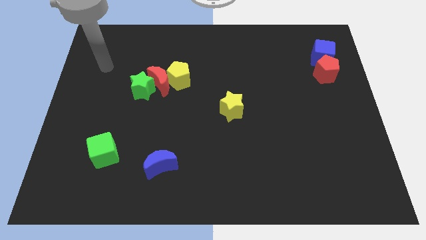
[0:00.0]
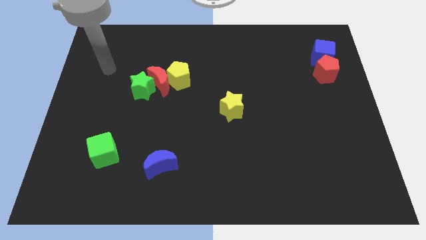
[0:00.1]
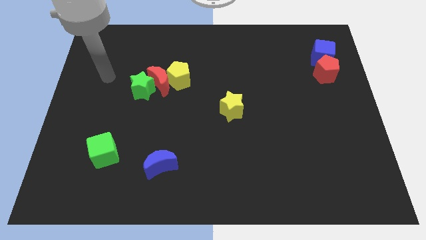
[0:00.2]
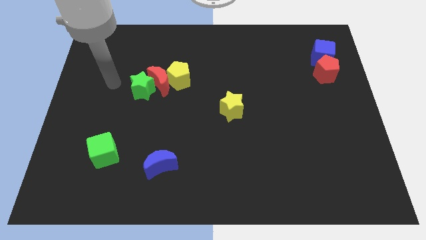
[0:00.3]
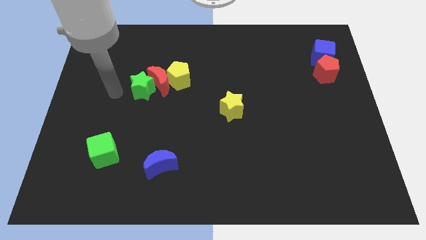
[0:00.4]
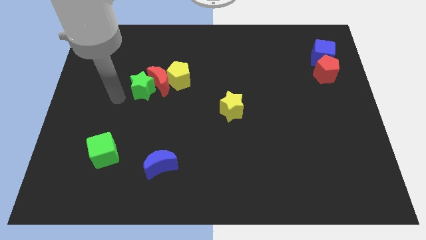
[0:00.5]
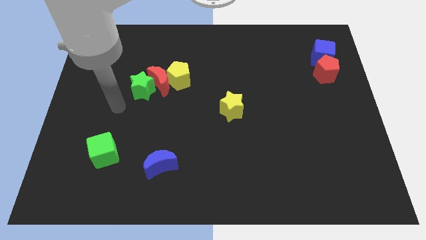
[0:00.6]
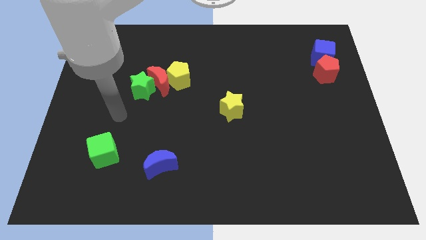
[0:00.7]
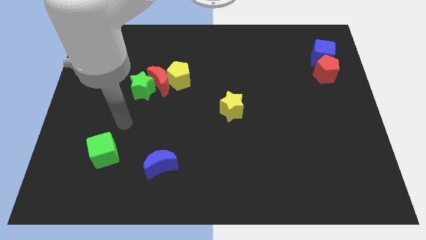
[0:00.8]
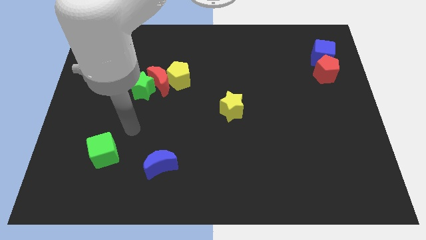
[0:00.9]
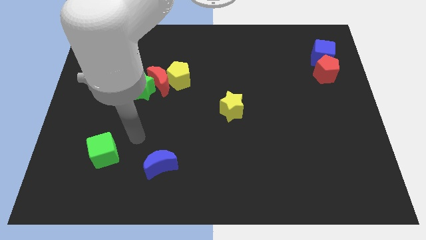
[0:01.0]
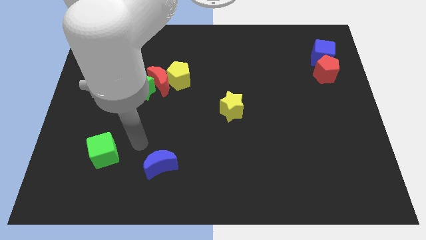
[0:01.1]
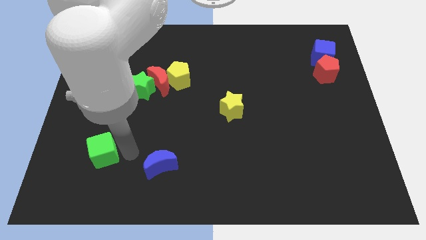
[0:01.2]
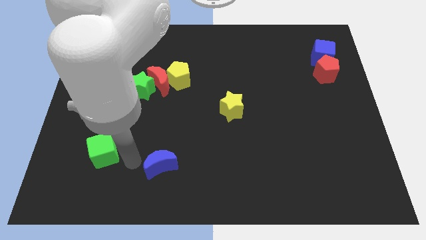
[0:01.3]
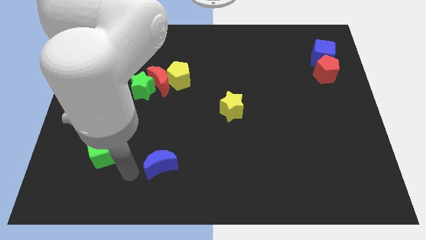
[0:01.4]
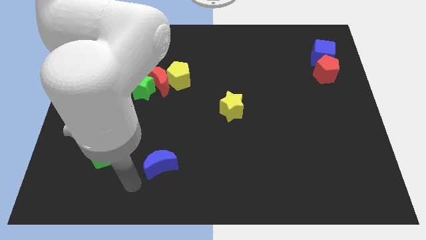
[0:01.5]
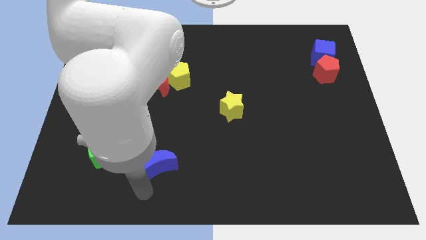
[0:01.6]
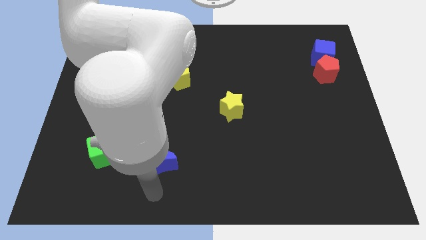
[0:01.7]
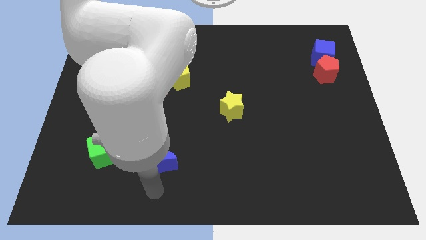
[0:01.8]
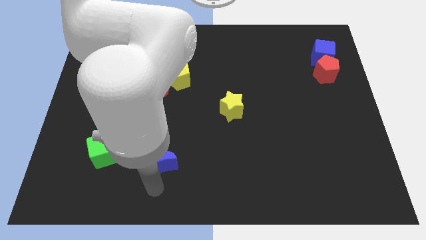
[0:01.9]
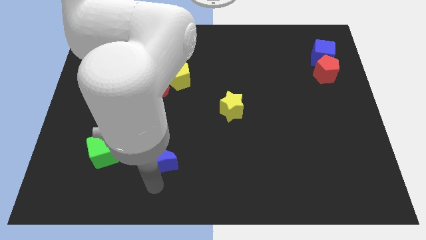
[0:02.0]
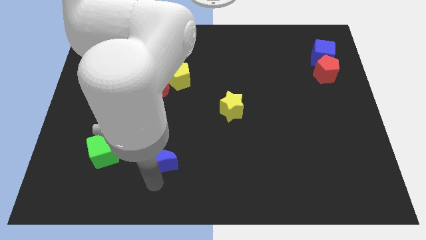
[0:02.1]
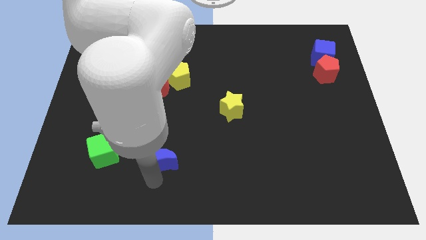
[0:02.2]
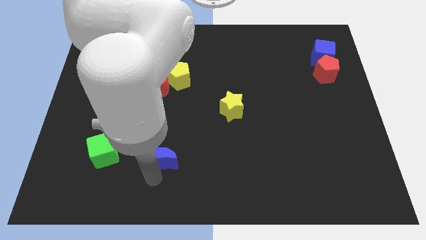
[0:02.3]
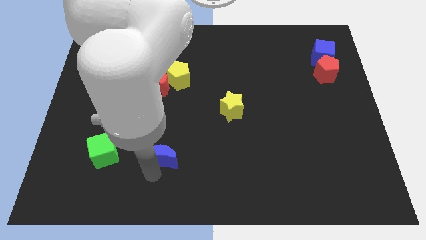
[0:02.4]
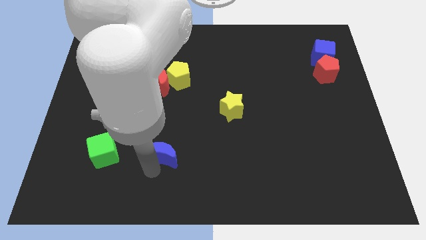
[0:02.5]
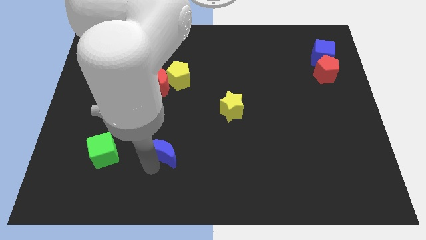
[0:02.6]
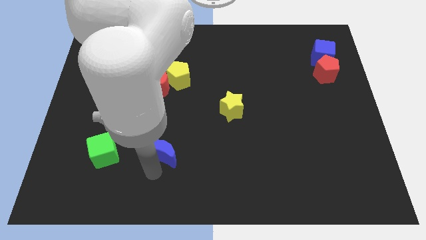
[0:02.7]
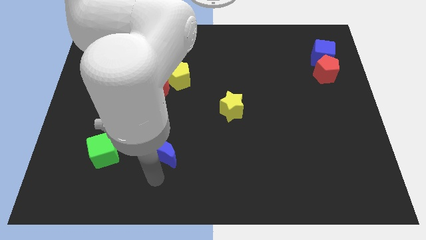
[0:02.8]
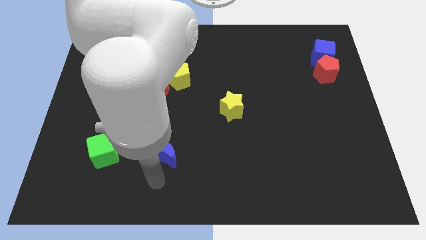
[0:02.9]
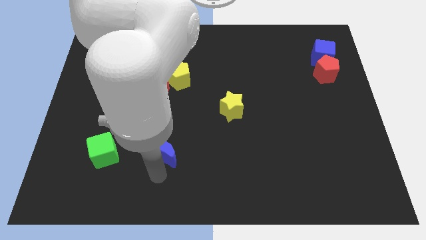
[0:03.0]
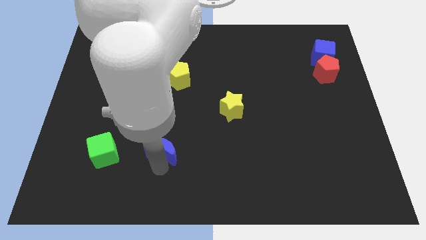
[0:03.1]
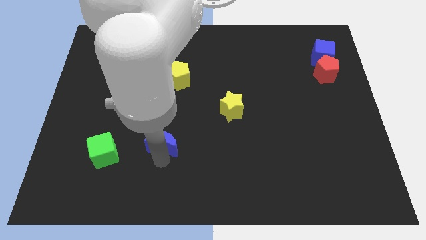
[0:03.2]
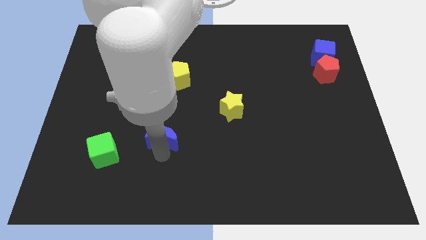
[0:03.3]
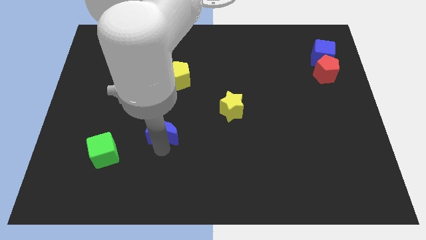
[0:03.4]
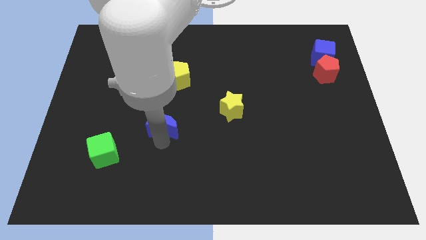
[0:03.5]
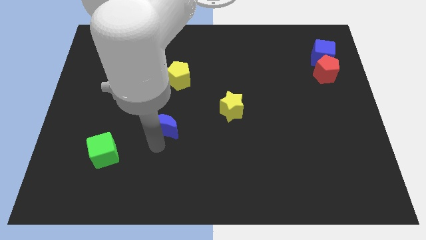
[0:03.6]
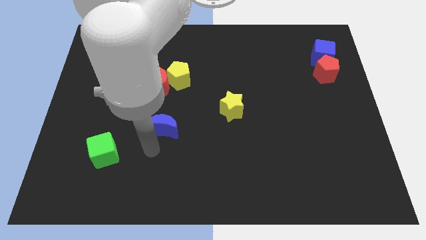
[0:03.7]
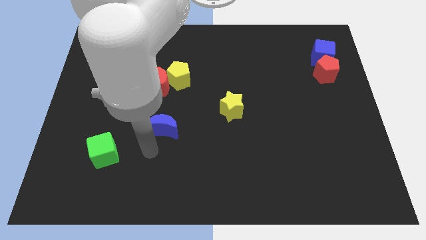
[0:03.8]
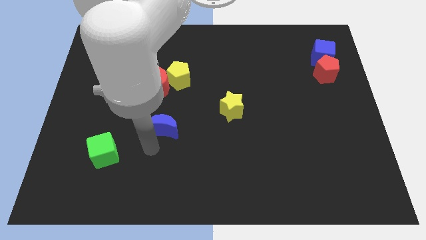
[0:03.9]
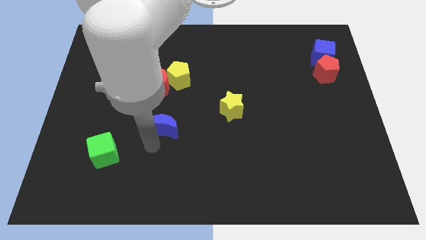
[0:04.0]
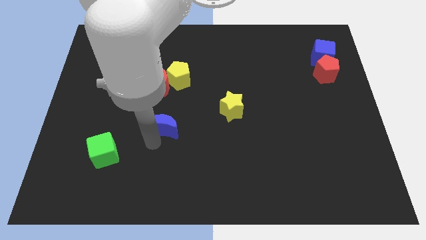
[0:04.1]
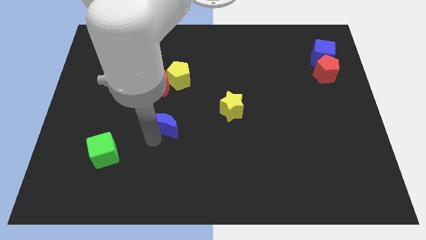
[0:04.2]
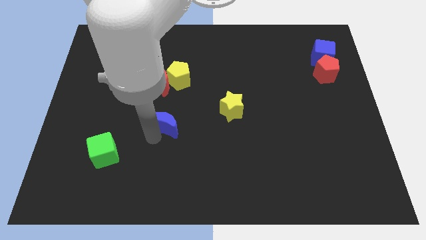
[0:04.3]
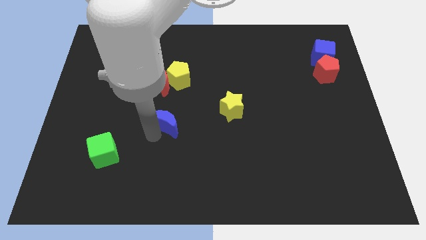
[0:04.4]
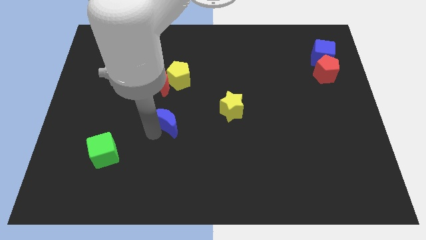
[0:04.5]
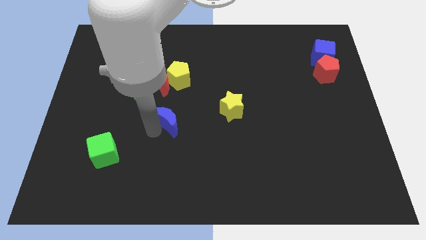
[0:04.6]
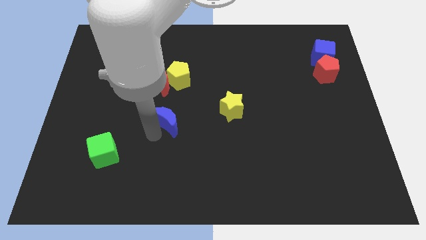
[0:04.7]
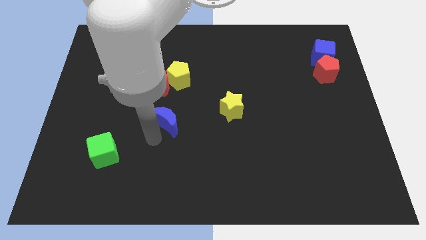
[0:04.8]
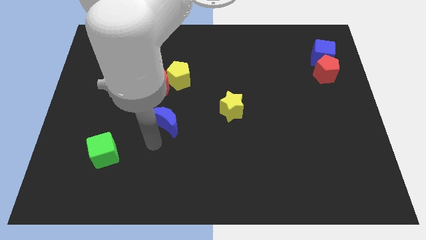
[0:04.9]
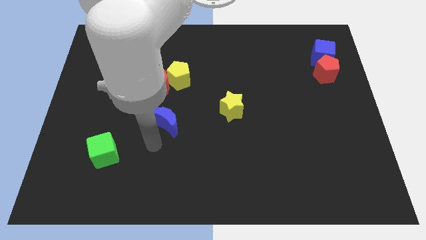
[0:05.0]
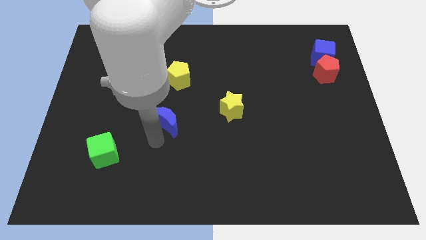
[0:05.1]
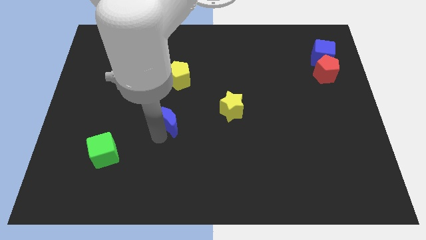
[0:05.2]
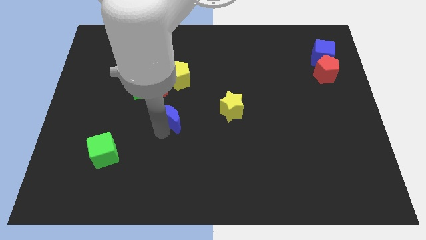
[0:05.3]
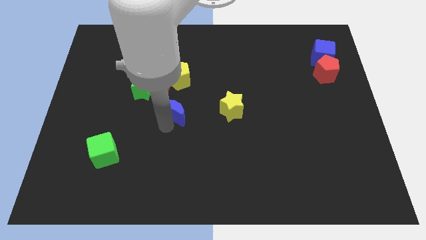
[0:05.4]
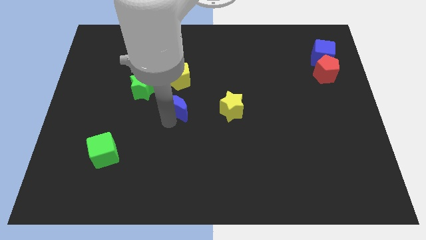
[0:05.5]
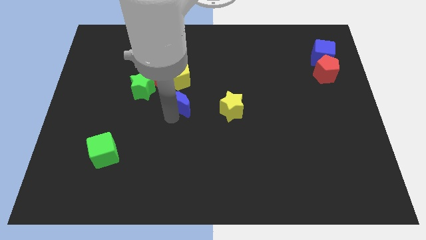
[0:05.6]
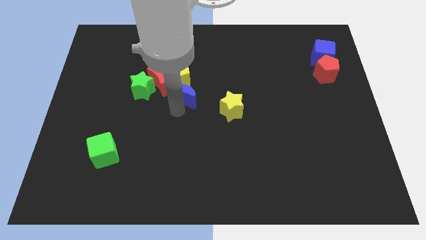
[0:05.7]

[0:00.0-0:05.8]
slide the blue moon close to the yellow pentagon

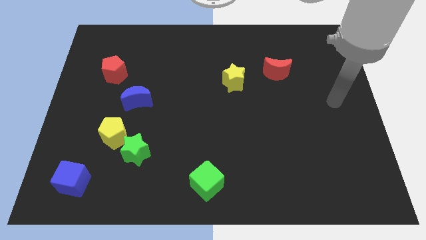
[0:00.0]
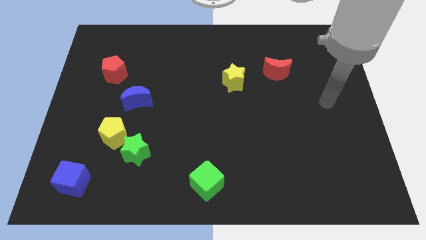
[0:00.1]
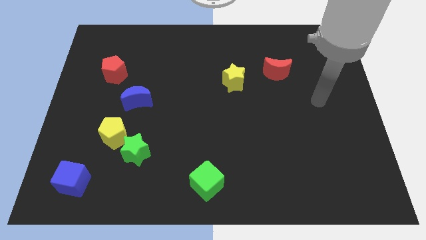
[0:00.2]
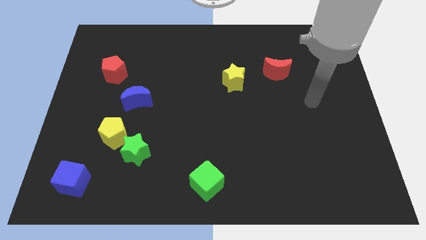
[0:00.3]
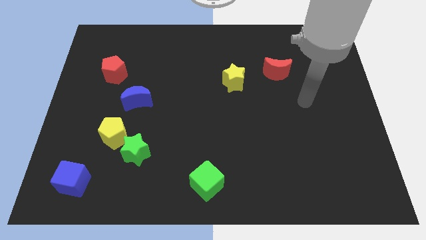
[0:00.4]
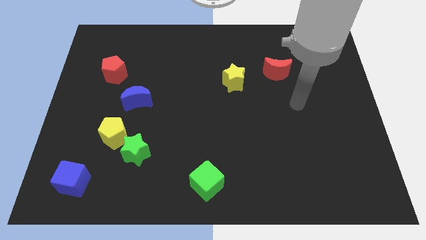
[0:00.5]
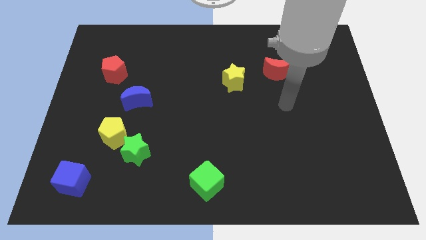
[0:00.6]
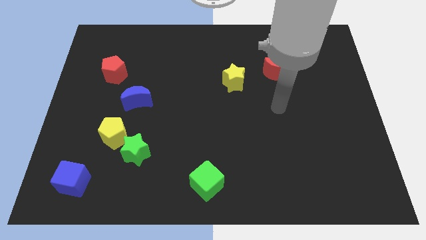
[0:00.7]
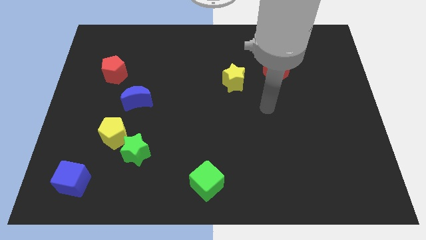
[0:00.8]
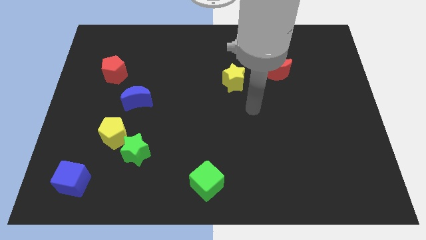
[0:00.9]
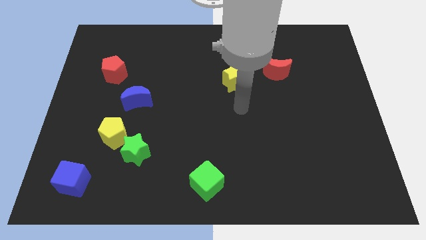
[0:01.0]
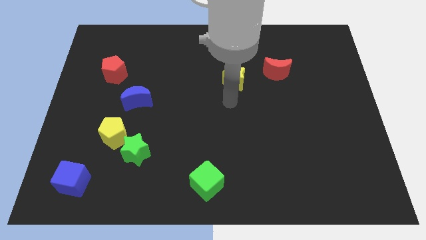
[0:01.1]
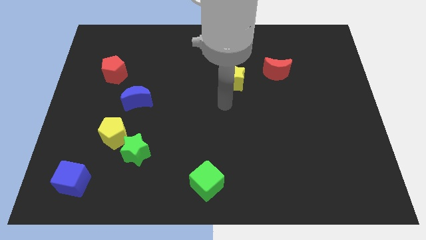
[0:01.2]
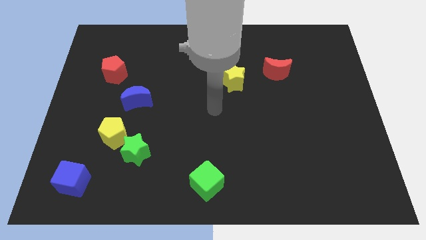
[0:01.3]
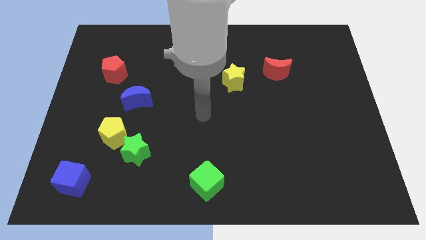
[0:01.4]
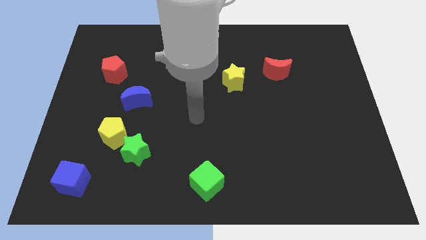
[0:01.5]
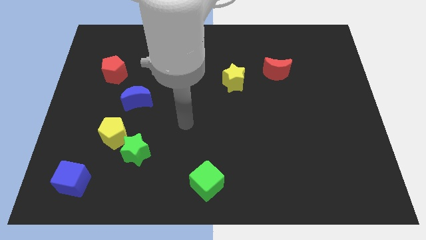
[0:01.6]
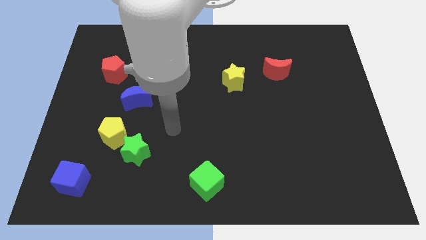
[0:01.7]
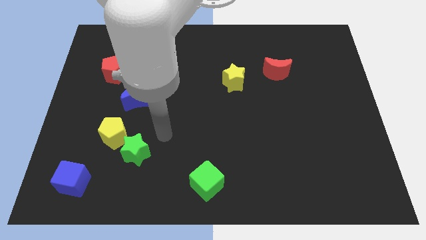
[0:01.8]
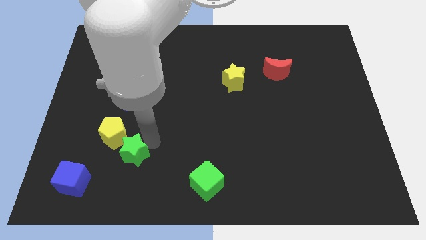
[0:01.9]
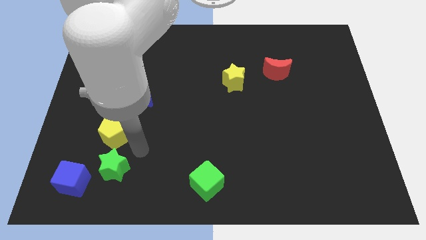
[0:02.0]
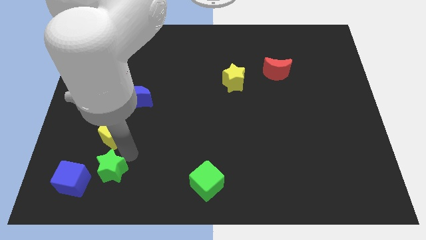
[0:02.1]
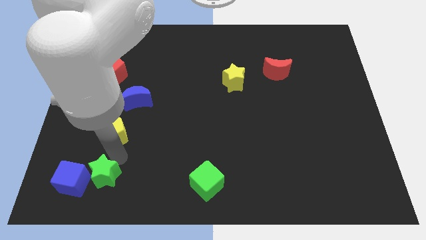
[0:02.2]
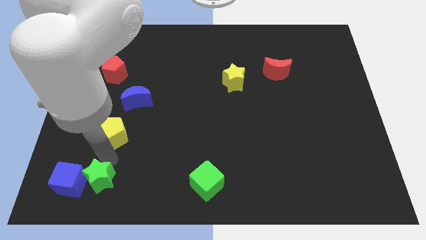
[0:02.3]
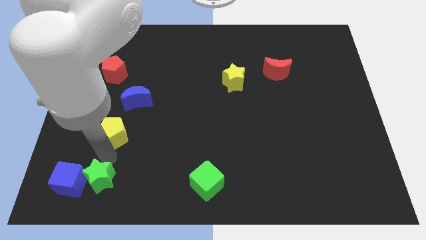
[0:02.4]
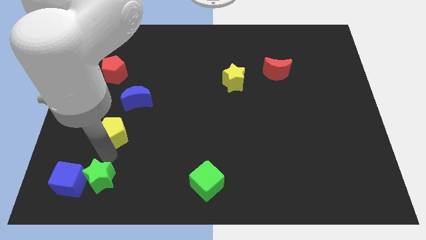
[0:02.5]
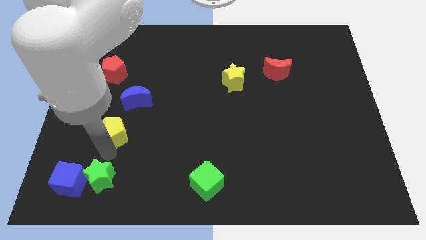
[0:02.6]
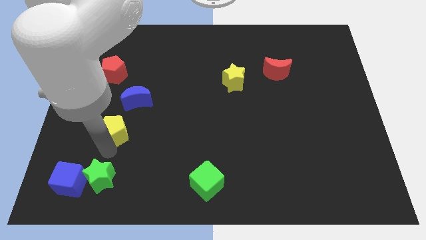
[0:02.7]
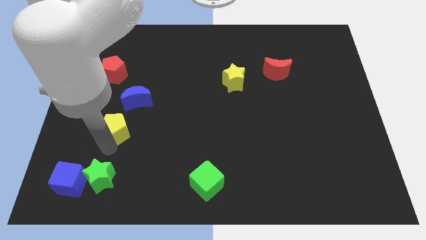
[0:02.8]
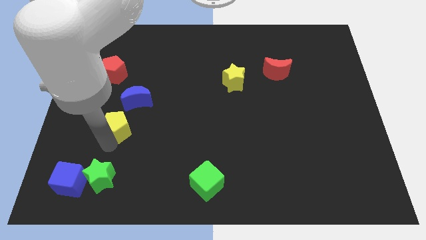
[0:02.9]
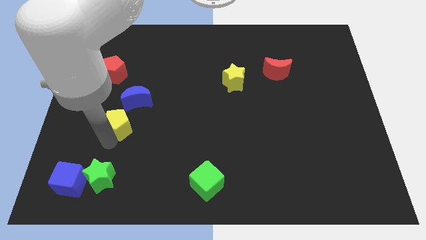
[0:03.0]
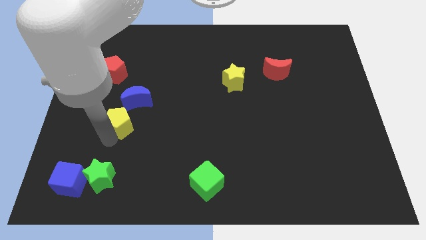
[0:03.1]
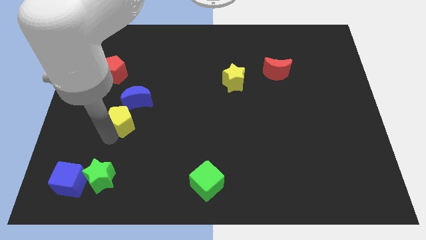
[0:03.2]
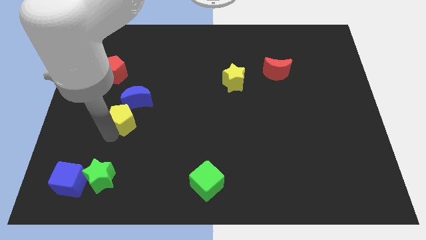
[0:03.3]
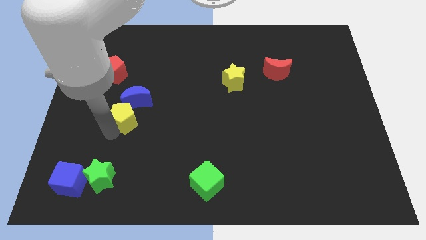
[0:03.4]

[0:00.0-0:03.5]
slide the yellow pentagon next to the blue moon
